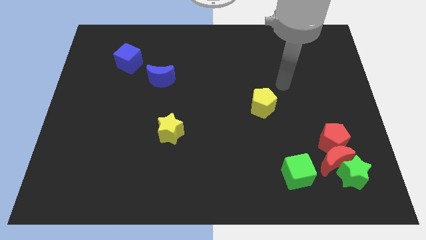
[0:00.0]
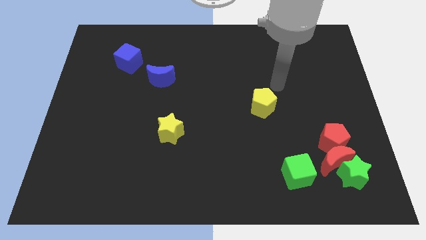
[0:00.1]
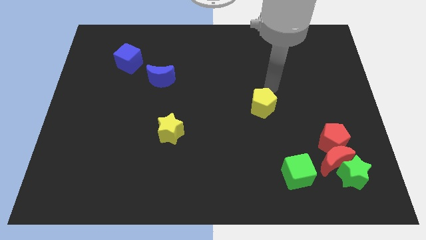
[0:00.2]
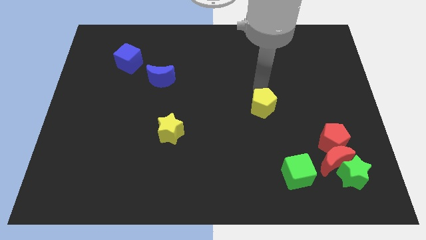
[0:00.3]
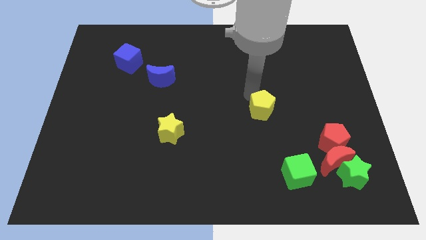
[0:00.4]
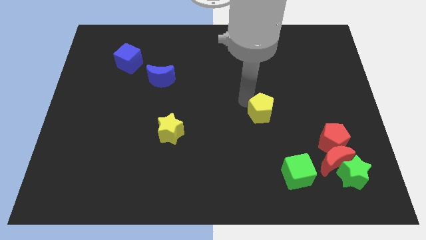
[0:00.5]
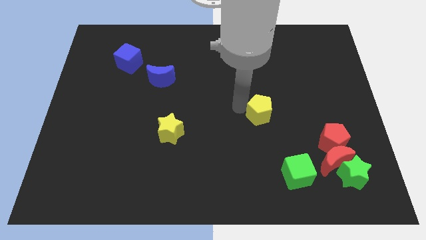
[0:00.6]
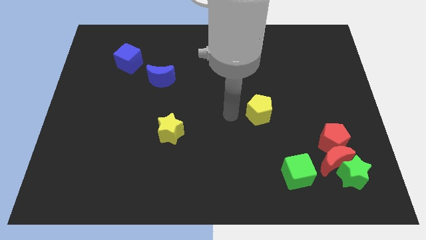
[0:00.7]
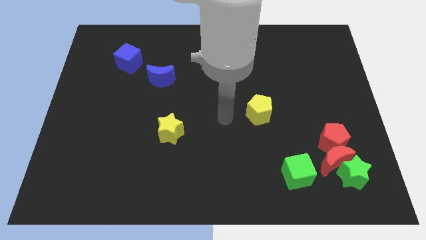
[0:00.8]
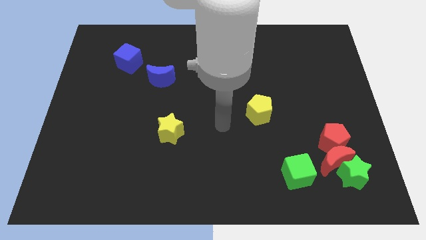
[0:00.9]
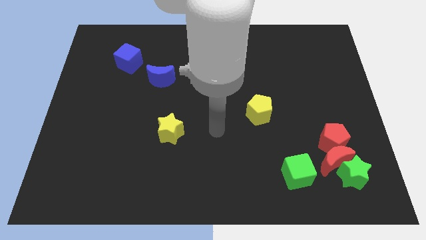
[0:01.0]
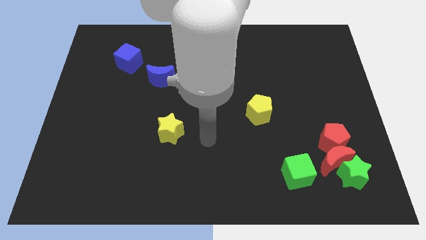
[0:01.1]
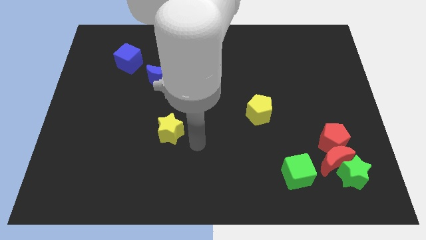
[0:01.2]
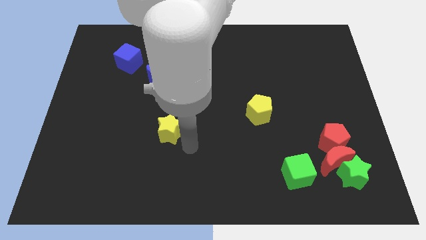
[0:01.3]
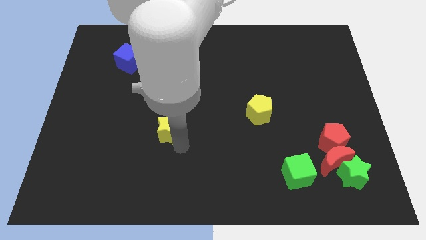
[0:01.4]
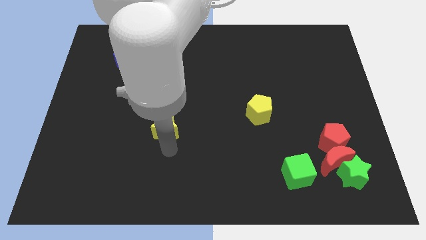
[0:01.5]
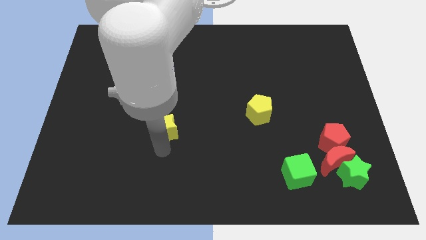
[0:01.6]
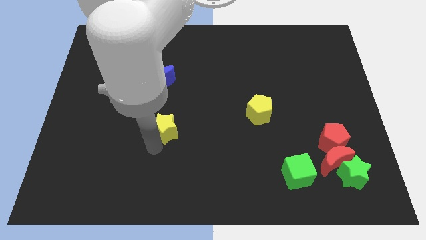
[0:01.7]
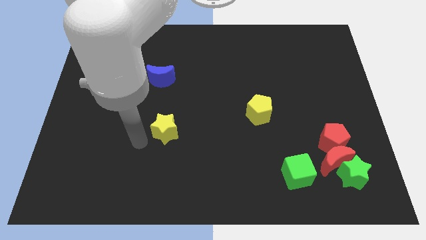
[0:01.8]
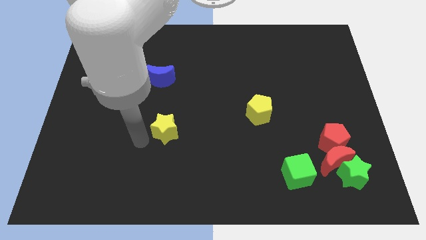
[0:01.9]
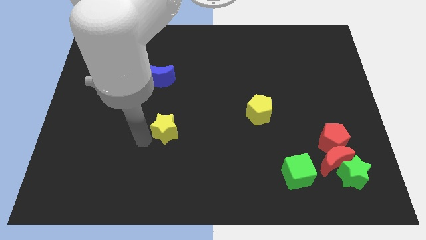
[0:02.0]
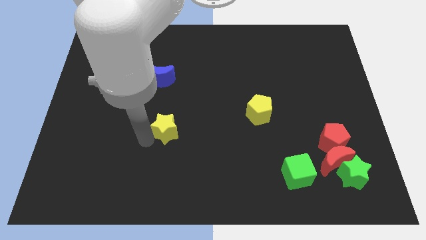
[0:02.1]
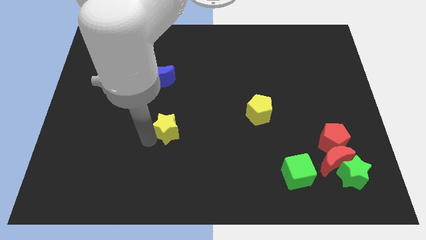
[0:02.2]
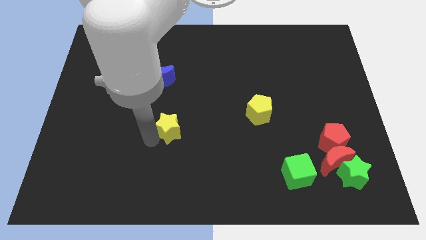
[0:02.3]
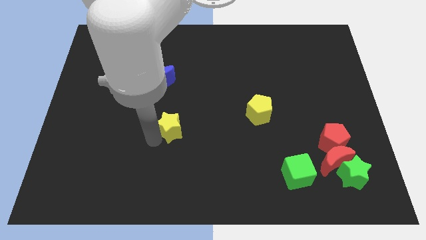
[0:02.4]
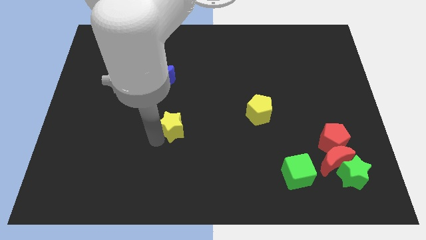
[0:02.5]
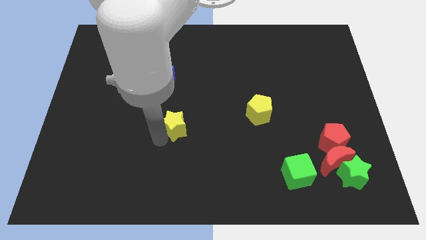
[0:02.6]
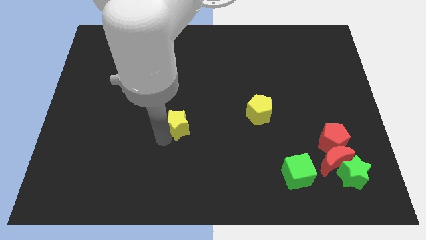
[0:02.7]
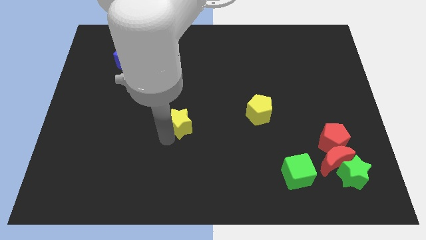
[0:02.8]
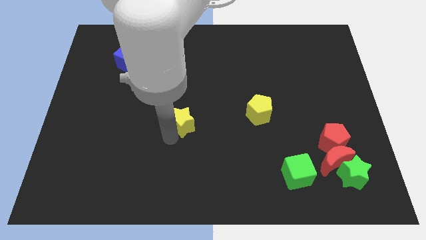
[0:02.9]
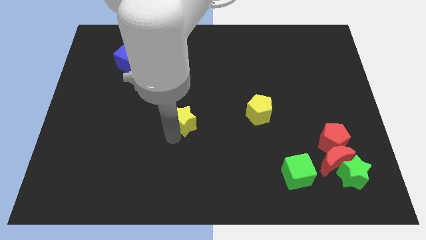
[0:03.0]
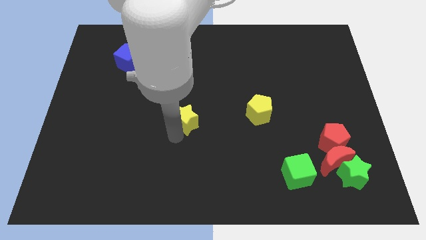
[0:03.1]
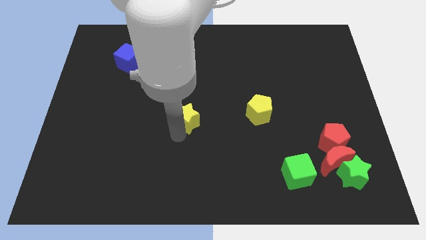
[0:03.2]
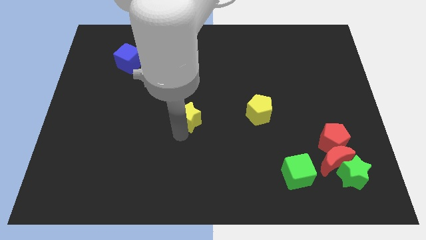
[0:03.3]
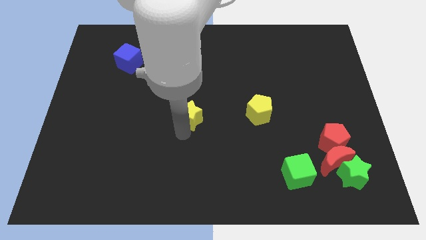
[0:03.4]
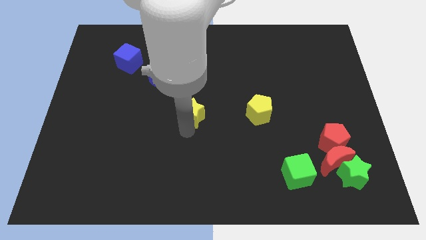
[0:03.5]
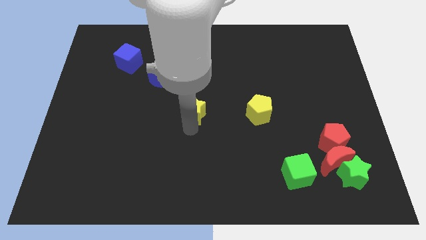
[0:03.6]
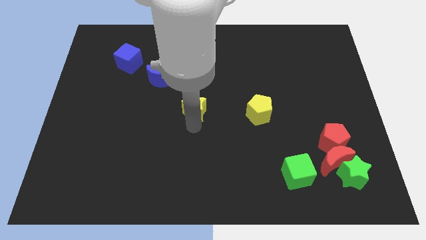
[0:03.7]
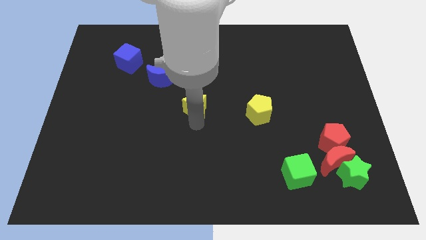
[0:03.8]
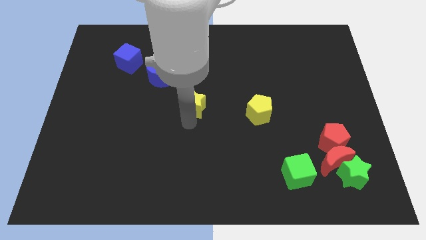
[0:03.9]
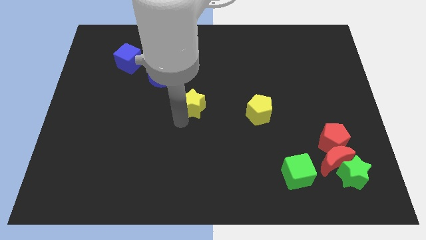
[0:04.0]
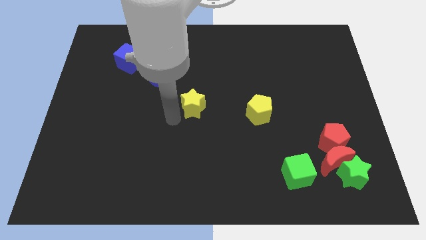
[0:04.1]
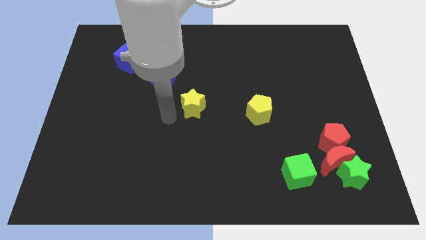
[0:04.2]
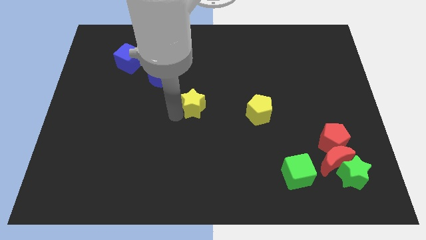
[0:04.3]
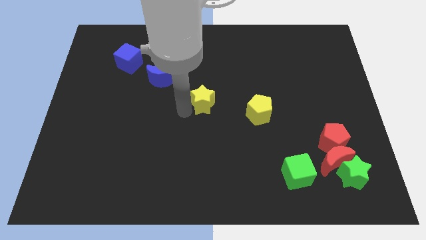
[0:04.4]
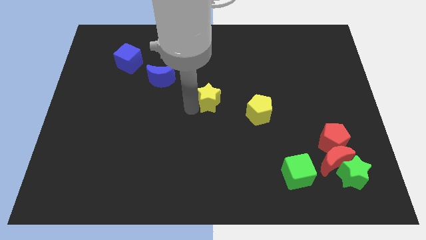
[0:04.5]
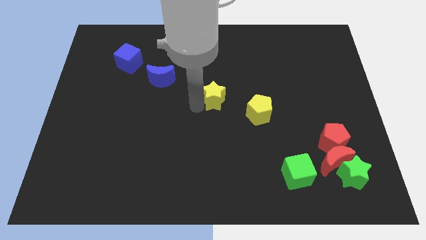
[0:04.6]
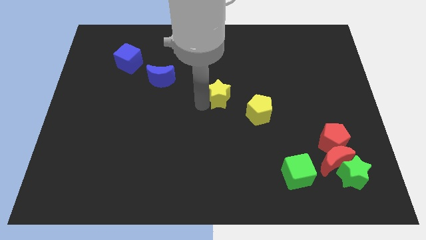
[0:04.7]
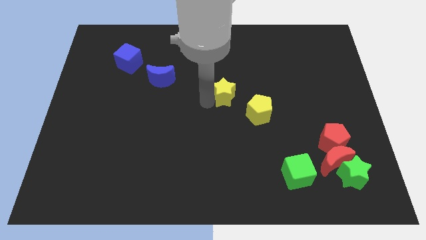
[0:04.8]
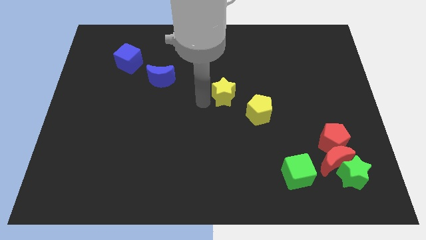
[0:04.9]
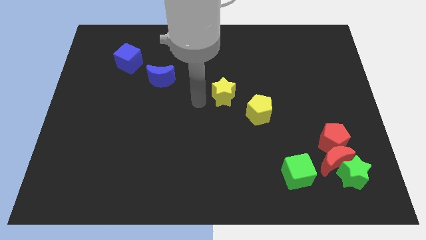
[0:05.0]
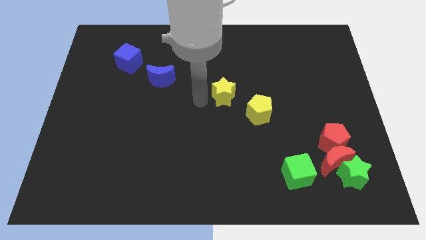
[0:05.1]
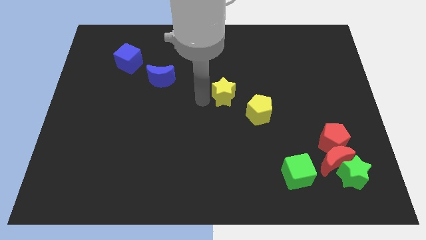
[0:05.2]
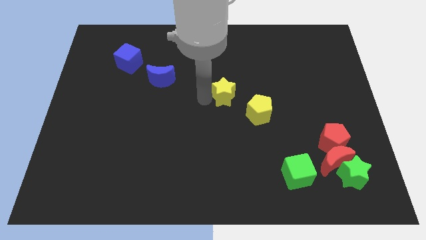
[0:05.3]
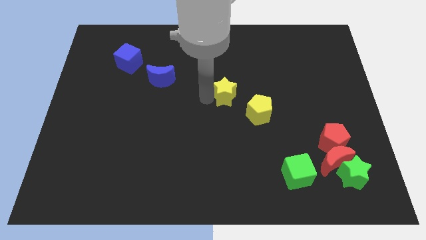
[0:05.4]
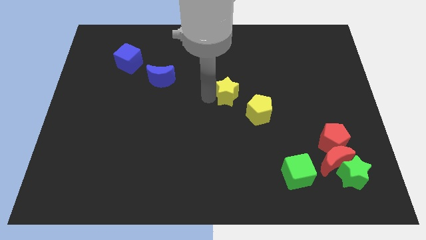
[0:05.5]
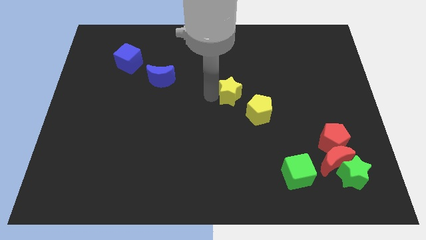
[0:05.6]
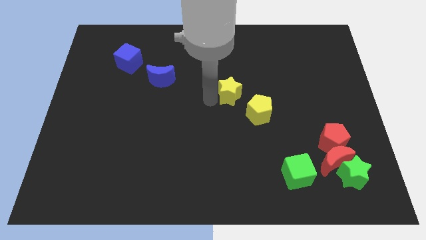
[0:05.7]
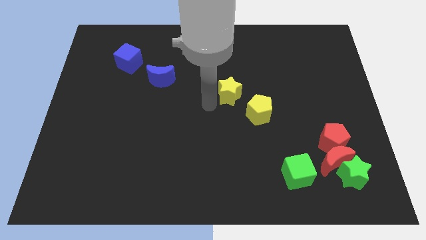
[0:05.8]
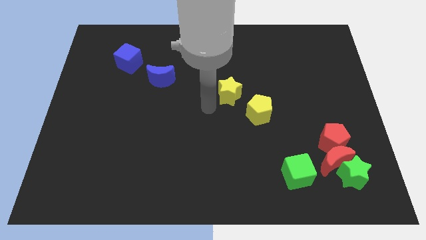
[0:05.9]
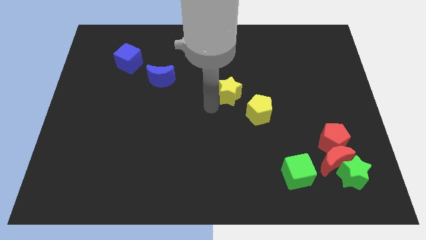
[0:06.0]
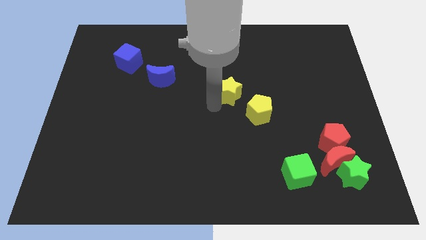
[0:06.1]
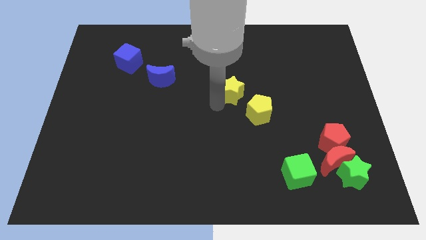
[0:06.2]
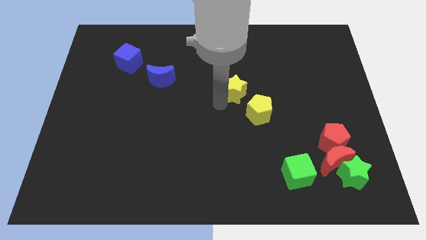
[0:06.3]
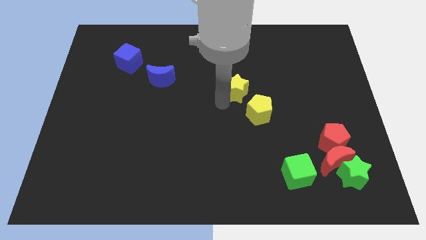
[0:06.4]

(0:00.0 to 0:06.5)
put the yellow star to the top side of the yellow pentagon
